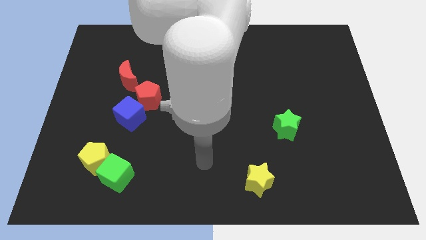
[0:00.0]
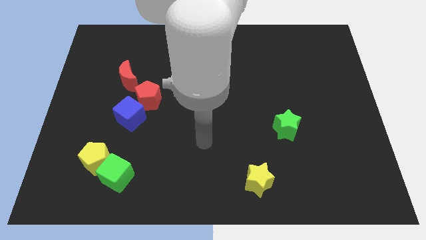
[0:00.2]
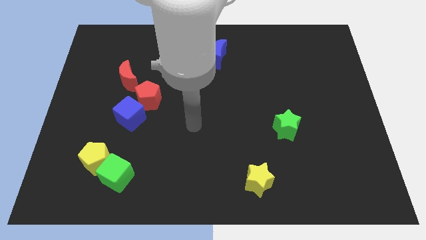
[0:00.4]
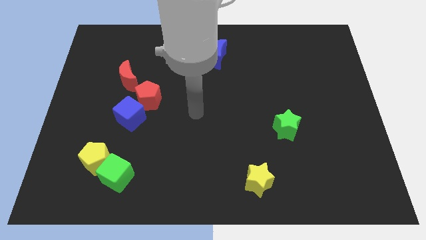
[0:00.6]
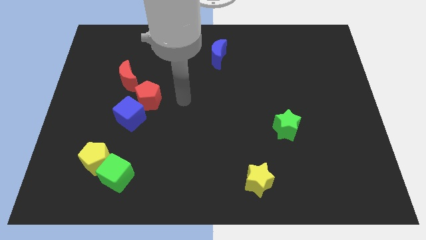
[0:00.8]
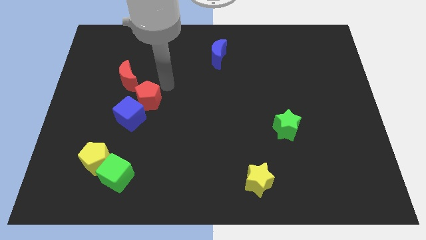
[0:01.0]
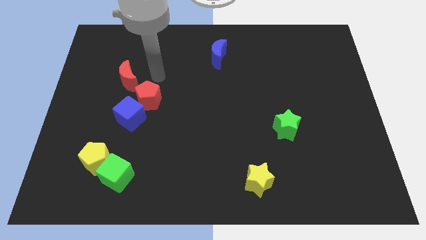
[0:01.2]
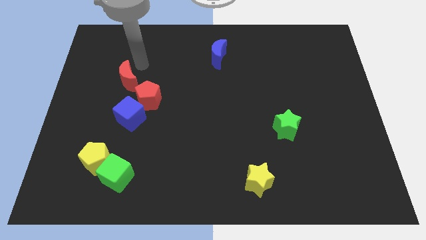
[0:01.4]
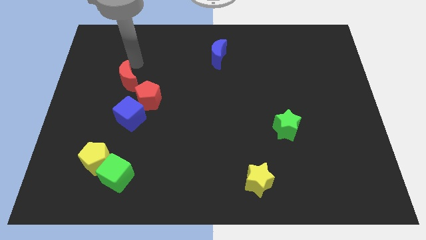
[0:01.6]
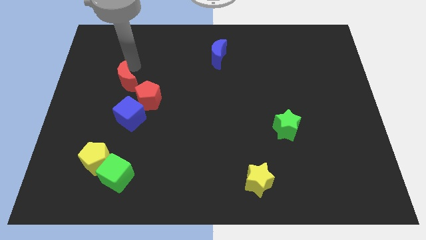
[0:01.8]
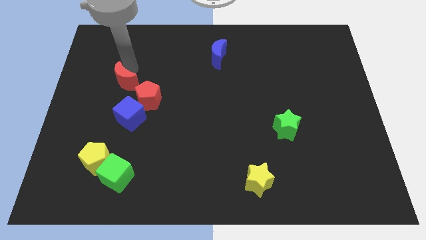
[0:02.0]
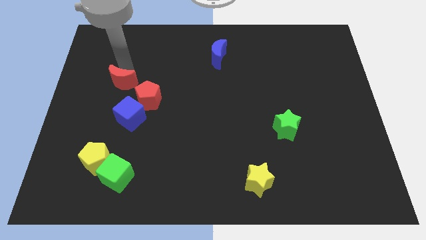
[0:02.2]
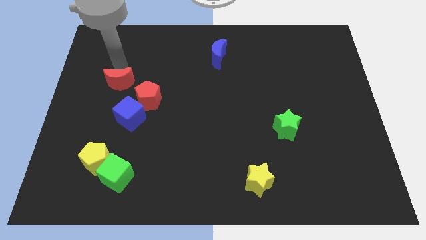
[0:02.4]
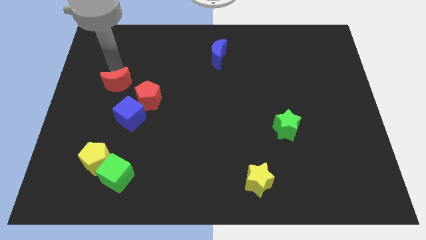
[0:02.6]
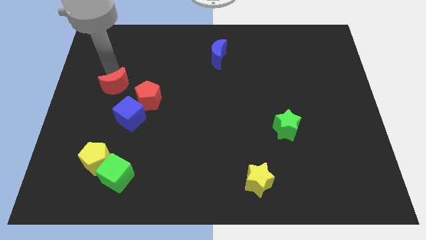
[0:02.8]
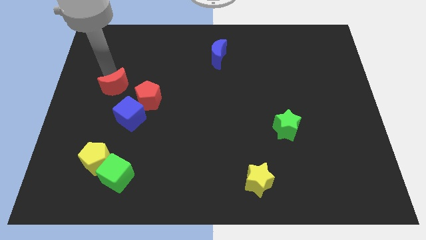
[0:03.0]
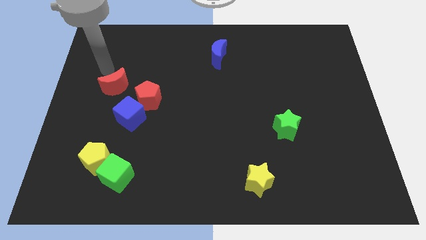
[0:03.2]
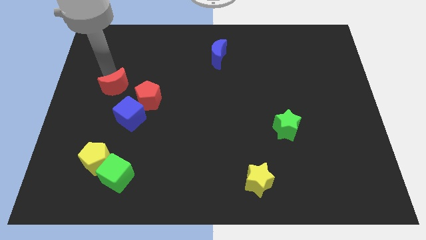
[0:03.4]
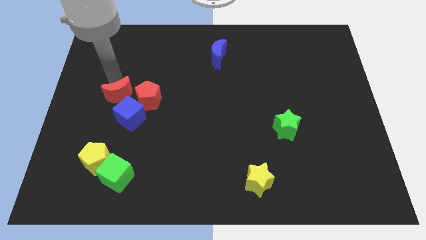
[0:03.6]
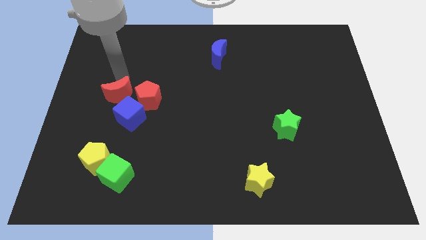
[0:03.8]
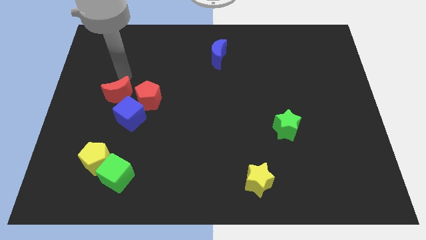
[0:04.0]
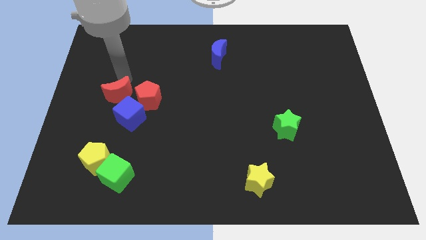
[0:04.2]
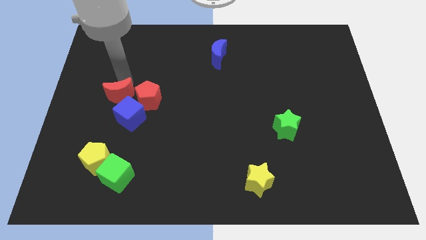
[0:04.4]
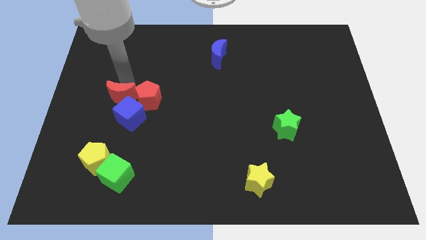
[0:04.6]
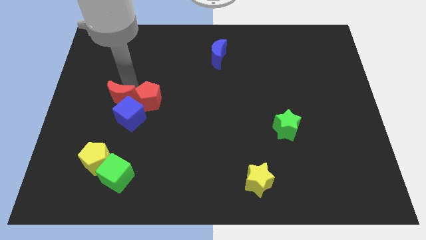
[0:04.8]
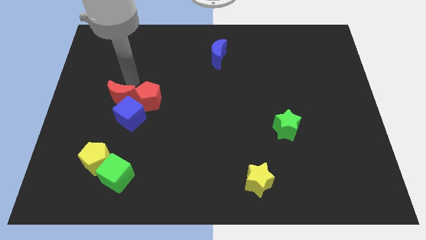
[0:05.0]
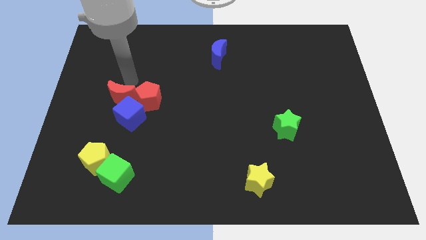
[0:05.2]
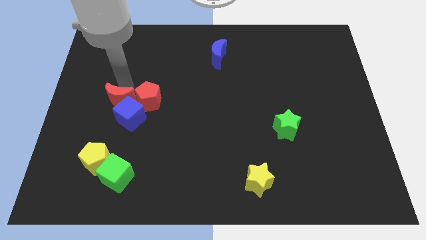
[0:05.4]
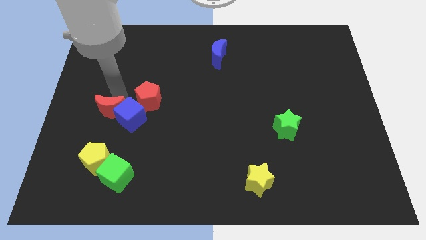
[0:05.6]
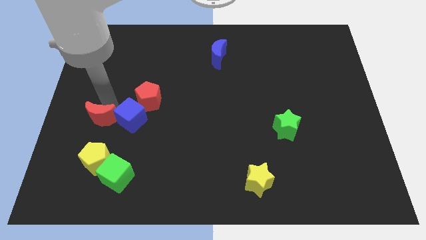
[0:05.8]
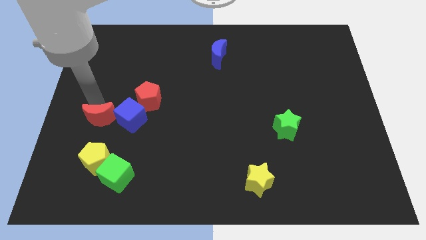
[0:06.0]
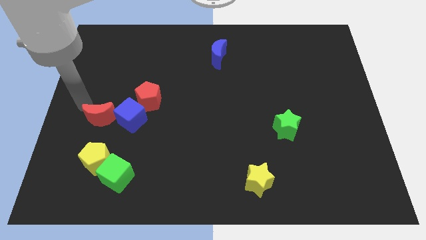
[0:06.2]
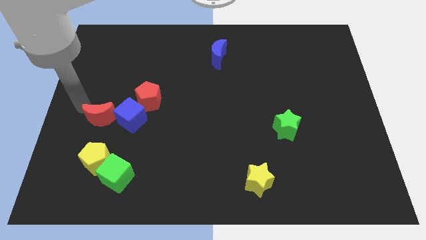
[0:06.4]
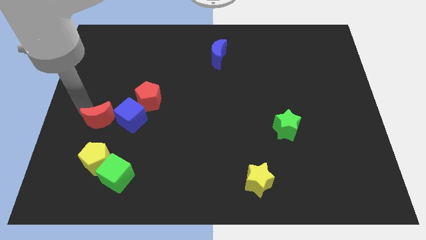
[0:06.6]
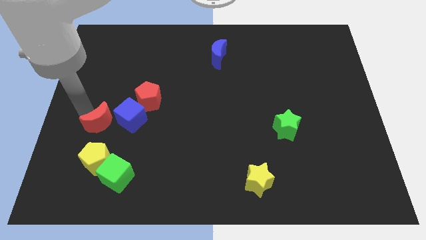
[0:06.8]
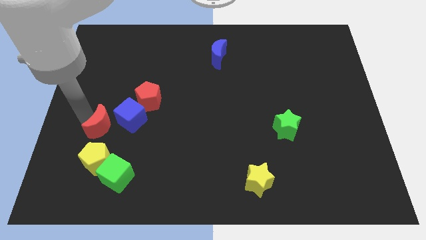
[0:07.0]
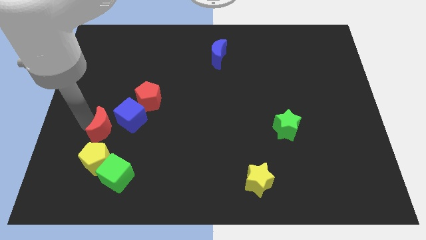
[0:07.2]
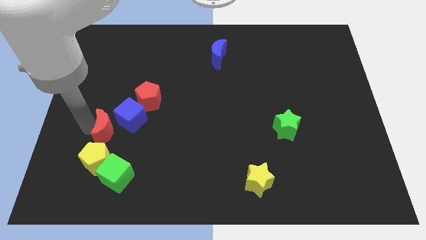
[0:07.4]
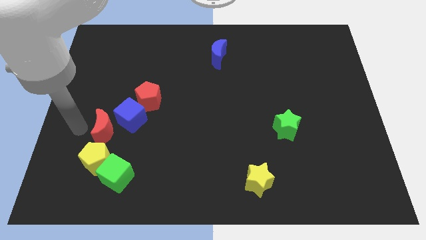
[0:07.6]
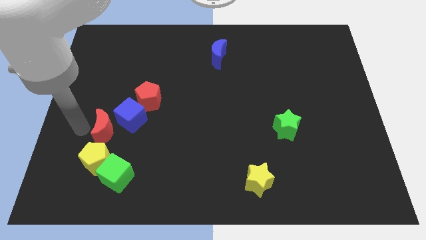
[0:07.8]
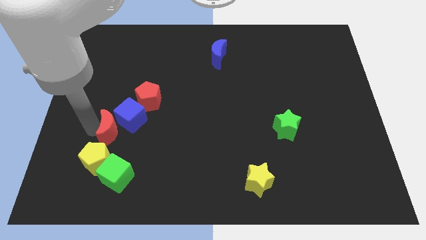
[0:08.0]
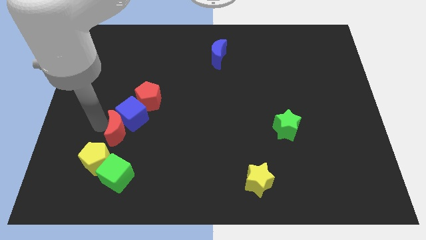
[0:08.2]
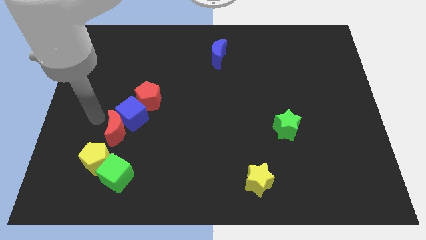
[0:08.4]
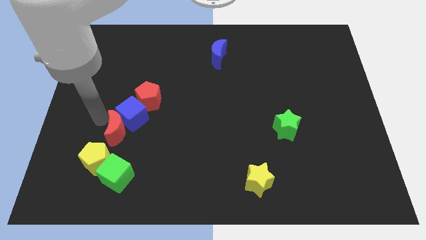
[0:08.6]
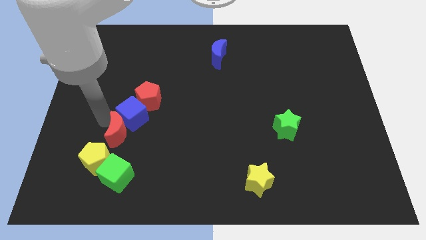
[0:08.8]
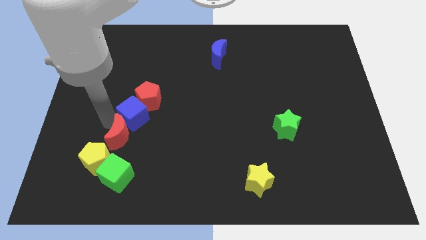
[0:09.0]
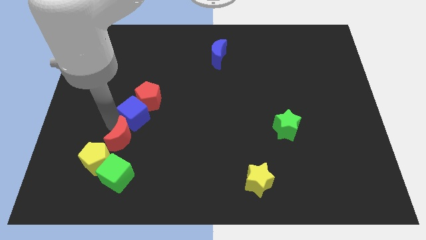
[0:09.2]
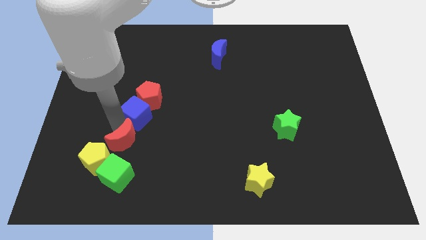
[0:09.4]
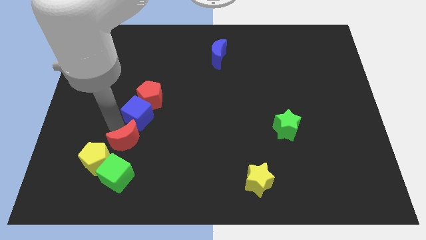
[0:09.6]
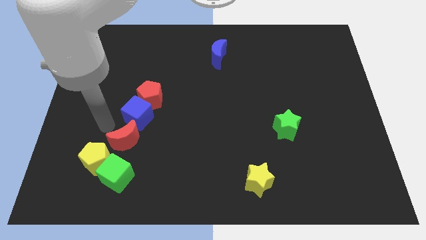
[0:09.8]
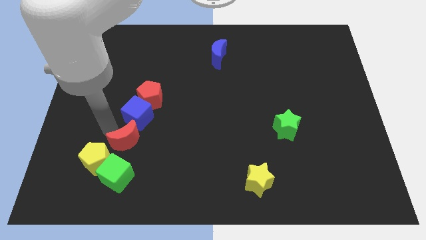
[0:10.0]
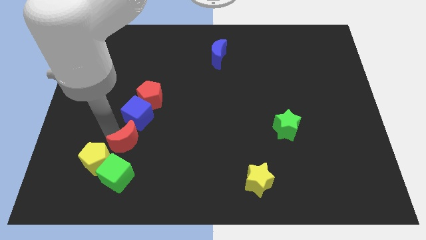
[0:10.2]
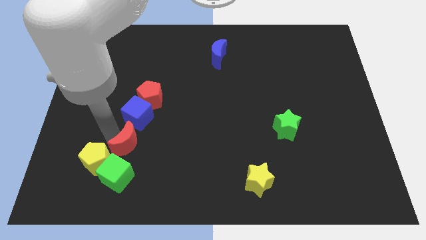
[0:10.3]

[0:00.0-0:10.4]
push the red moon to the top right side of the green cube

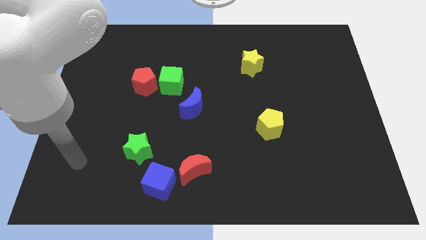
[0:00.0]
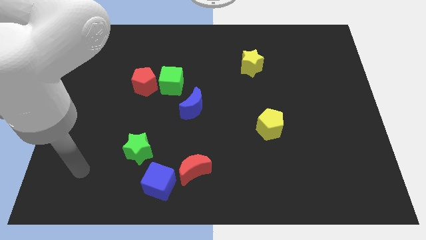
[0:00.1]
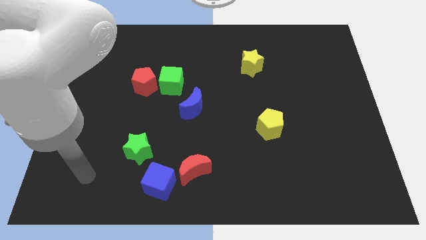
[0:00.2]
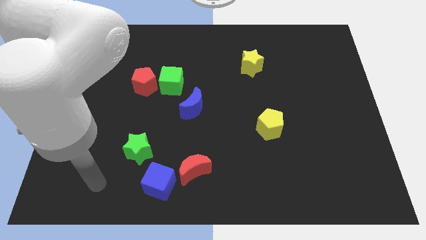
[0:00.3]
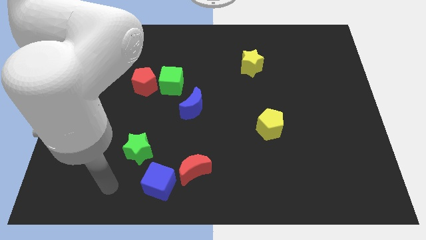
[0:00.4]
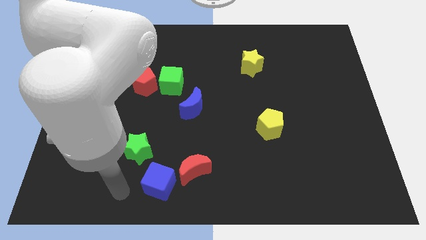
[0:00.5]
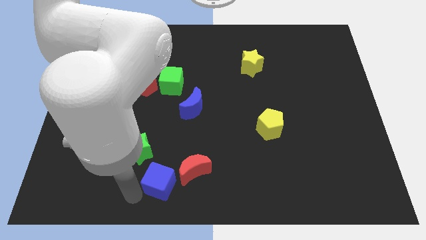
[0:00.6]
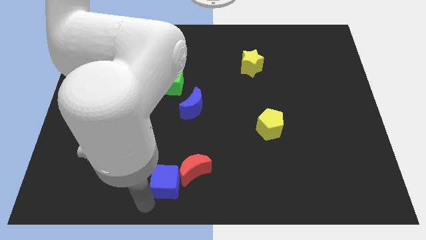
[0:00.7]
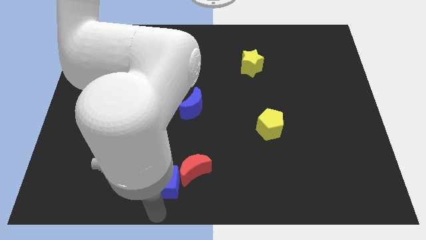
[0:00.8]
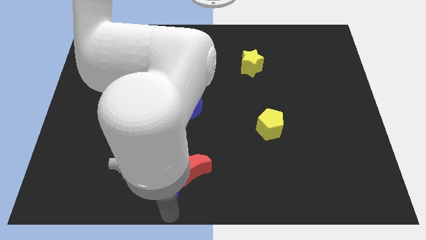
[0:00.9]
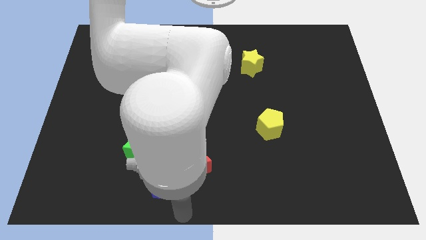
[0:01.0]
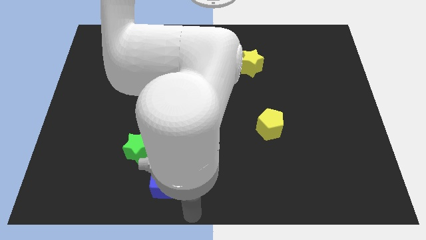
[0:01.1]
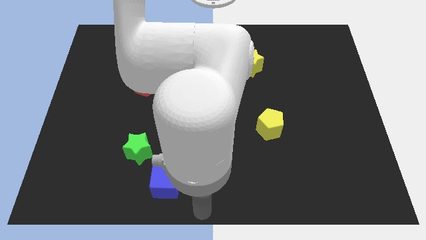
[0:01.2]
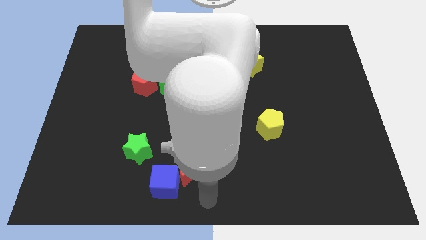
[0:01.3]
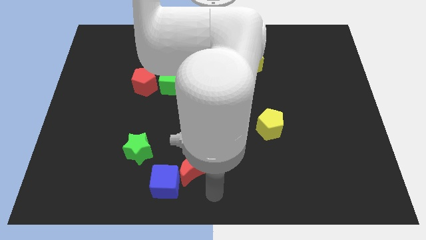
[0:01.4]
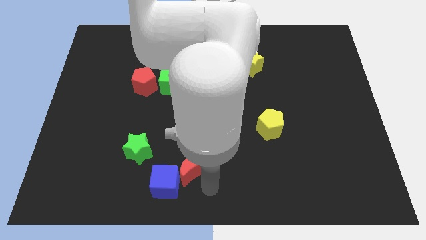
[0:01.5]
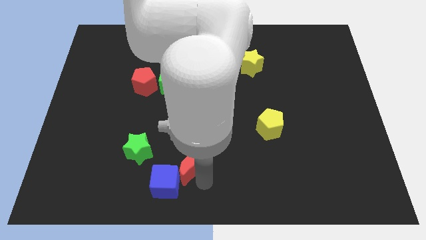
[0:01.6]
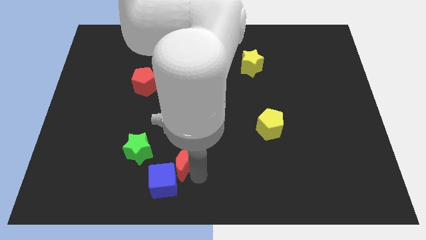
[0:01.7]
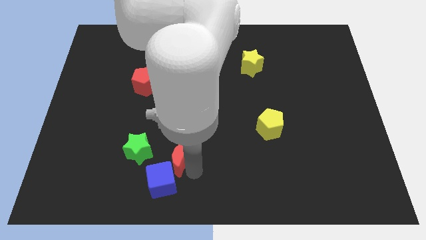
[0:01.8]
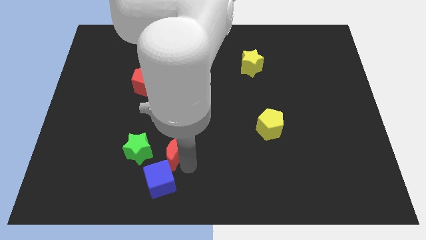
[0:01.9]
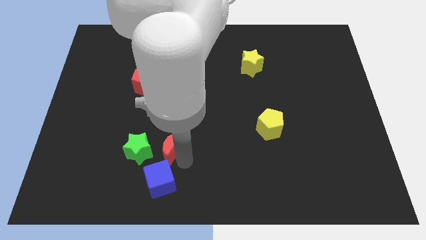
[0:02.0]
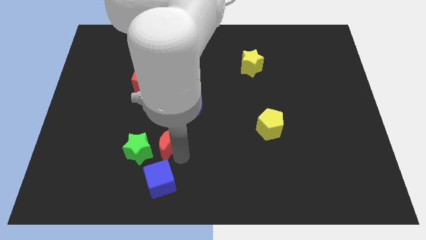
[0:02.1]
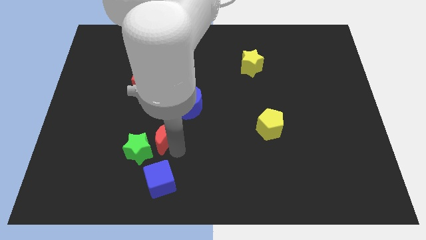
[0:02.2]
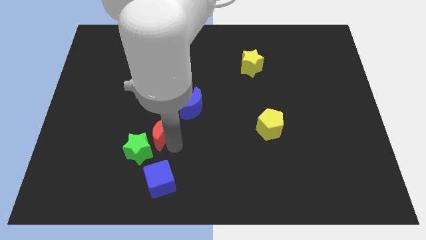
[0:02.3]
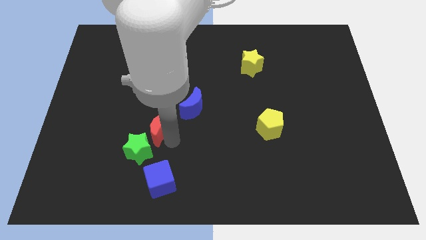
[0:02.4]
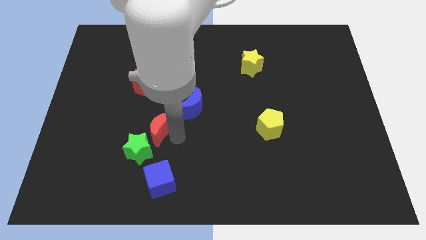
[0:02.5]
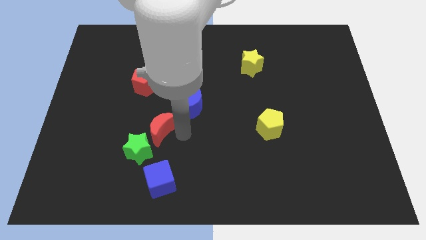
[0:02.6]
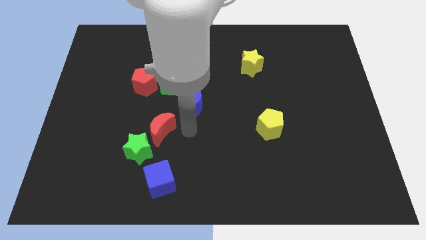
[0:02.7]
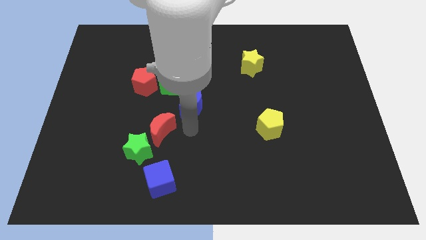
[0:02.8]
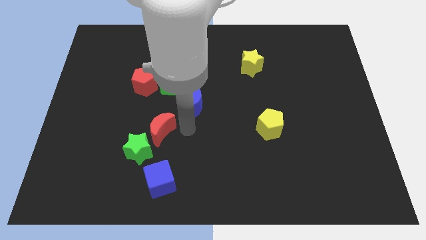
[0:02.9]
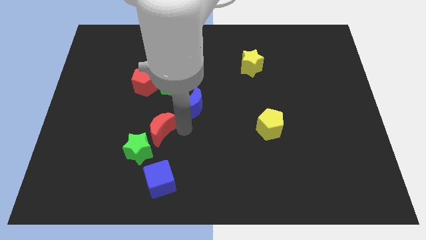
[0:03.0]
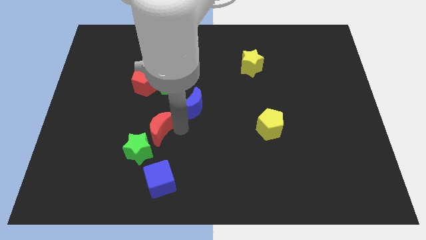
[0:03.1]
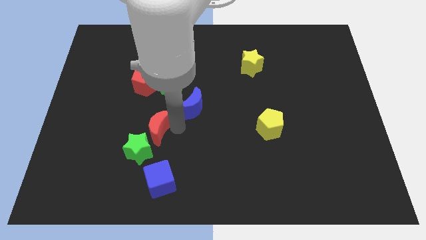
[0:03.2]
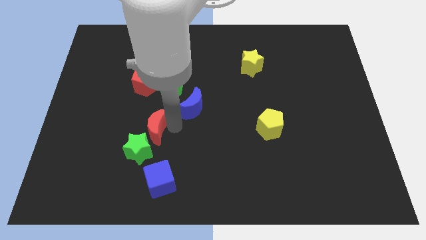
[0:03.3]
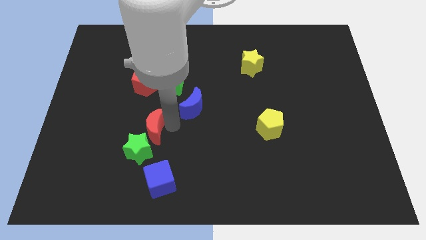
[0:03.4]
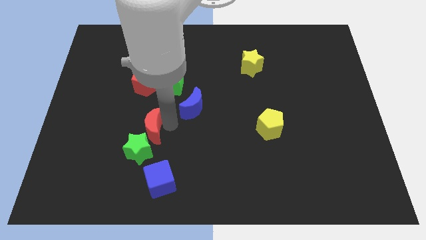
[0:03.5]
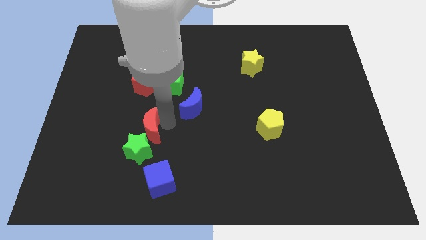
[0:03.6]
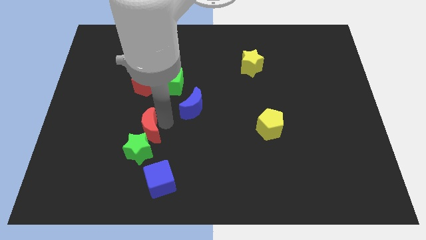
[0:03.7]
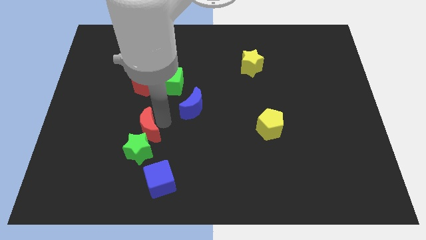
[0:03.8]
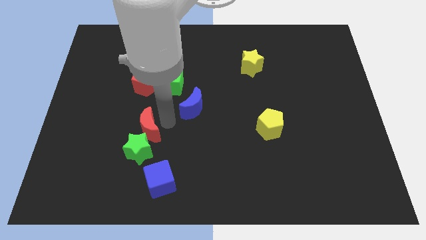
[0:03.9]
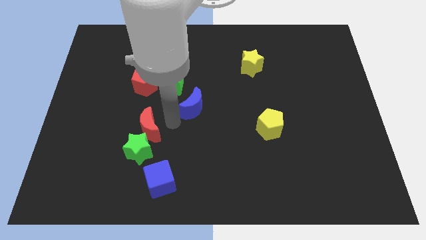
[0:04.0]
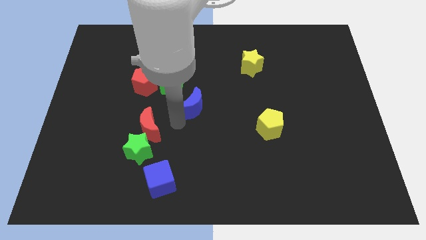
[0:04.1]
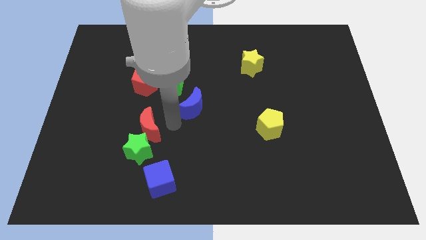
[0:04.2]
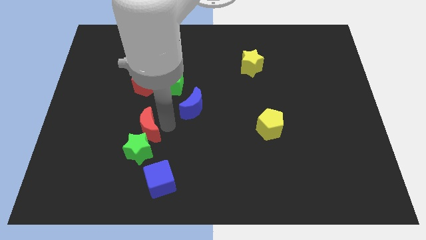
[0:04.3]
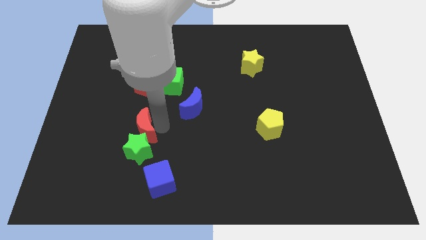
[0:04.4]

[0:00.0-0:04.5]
slide the red moon to the top left of the green star
